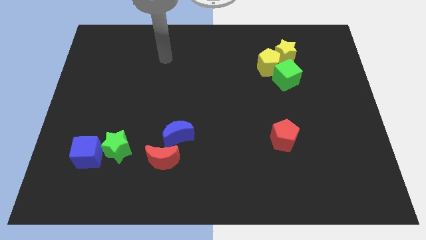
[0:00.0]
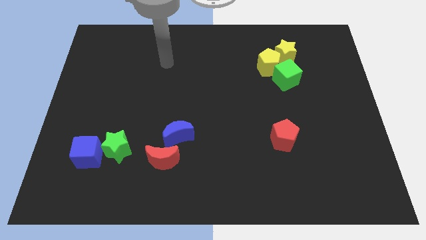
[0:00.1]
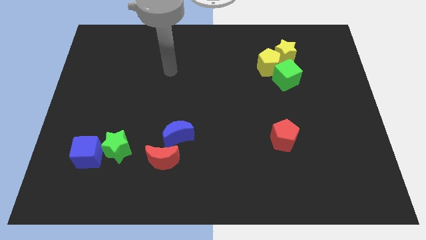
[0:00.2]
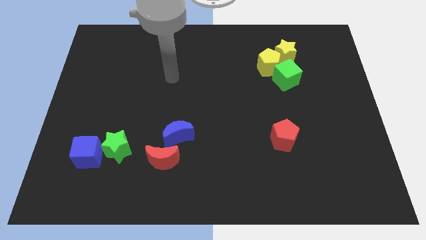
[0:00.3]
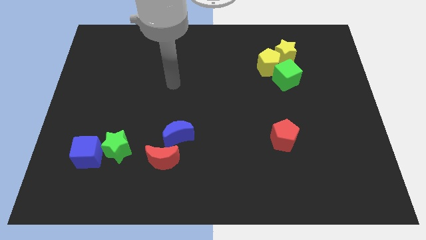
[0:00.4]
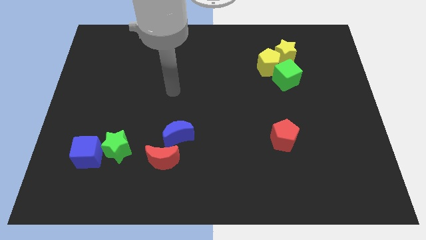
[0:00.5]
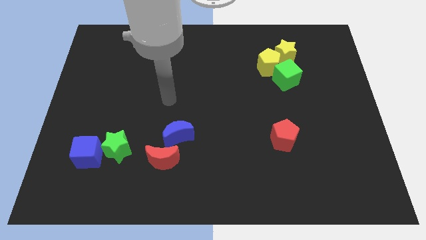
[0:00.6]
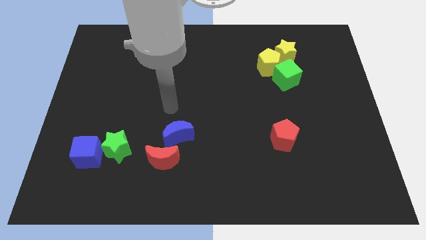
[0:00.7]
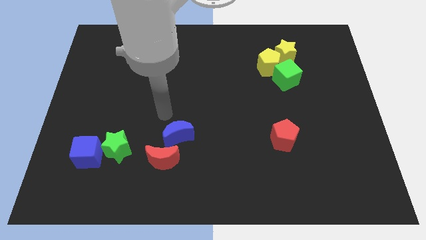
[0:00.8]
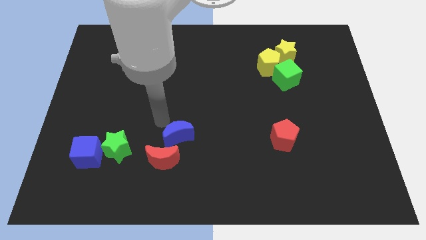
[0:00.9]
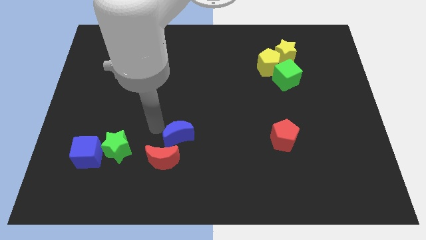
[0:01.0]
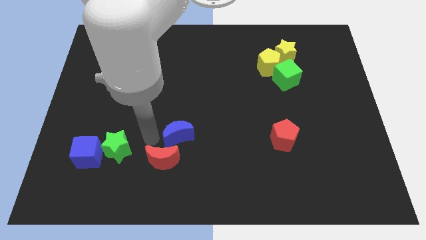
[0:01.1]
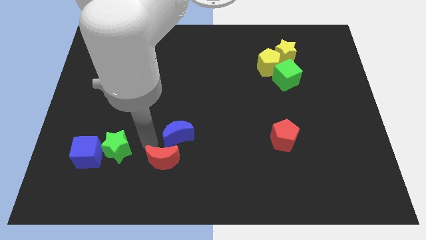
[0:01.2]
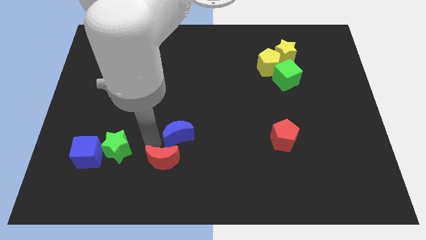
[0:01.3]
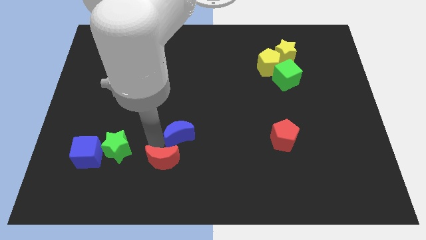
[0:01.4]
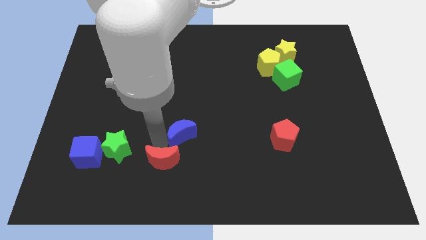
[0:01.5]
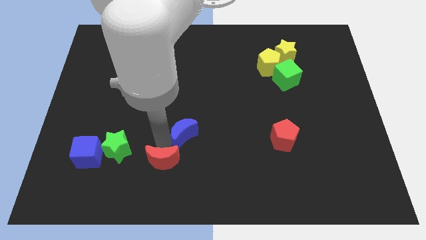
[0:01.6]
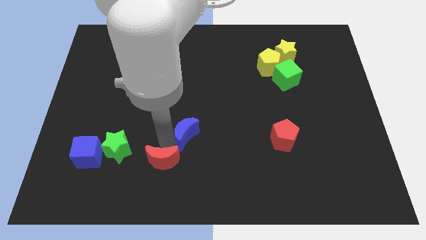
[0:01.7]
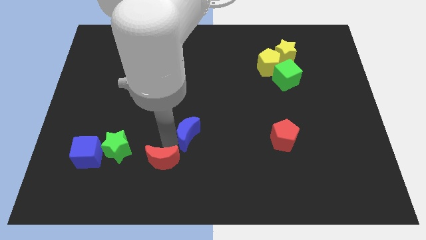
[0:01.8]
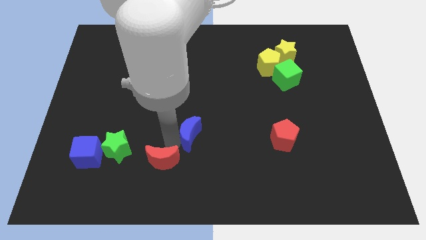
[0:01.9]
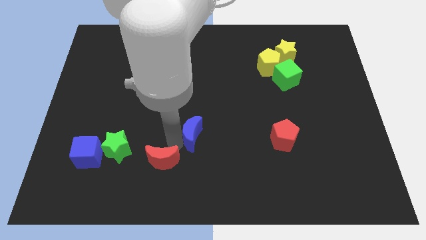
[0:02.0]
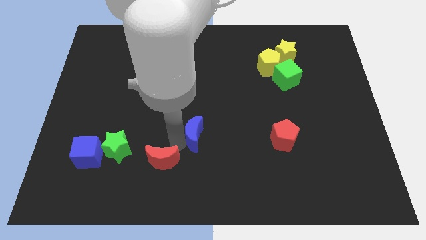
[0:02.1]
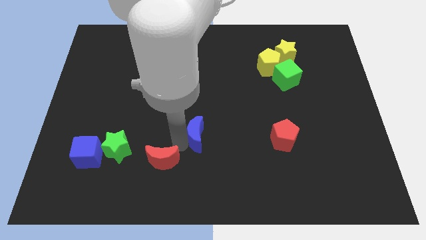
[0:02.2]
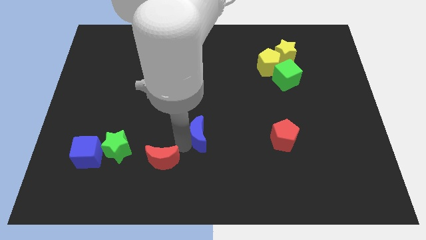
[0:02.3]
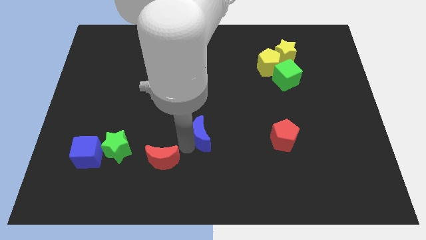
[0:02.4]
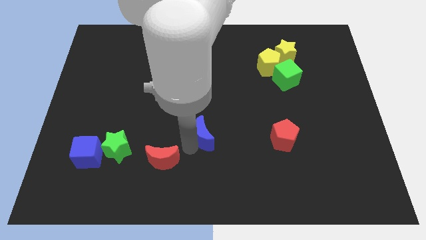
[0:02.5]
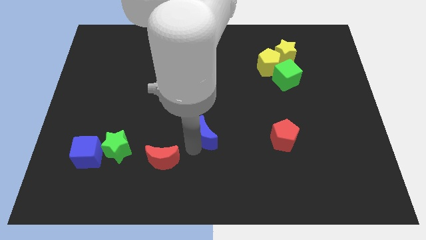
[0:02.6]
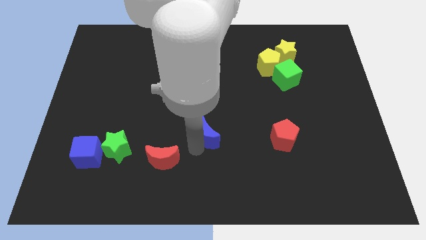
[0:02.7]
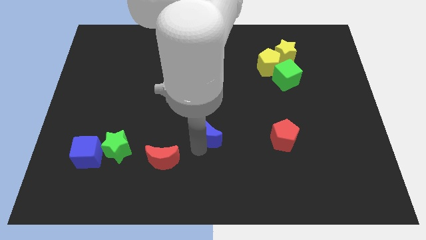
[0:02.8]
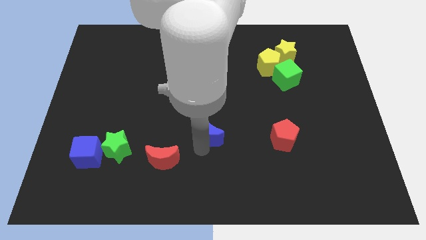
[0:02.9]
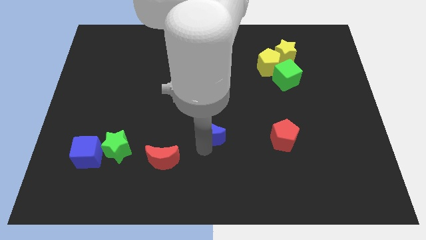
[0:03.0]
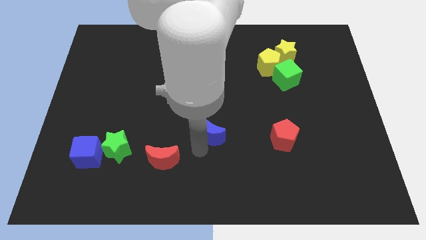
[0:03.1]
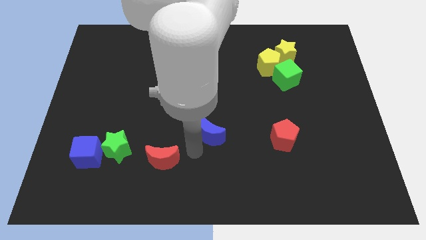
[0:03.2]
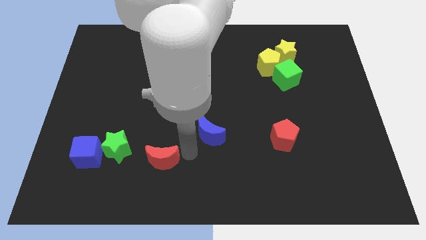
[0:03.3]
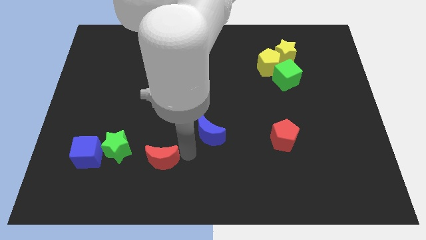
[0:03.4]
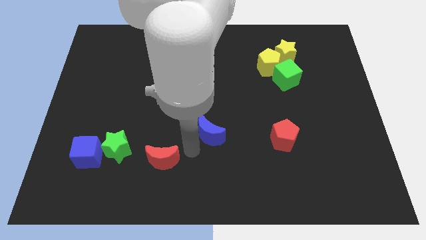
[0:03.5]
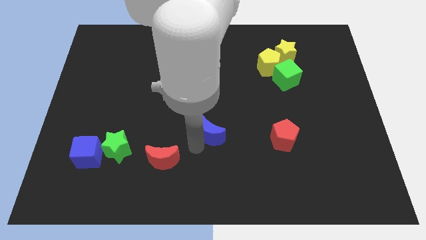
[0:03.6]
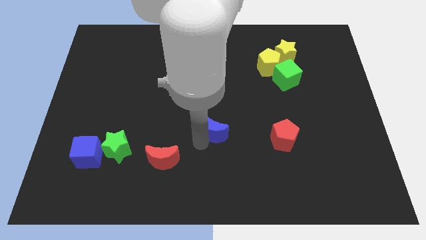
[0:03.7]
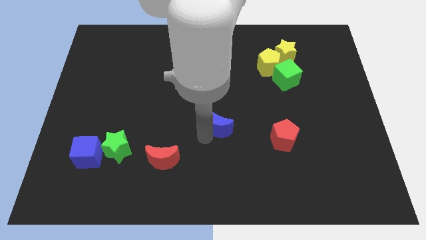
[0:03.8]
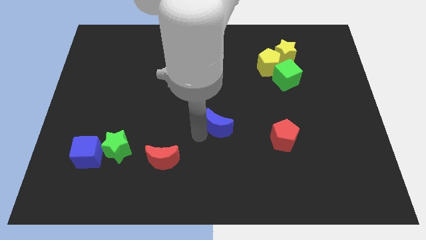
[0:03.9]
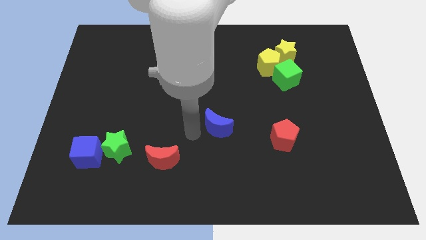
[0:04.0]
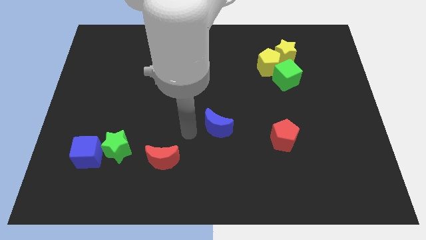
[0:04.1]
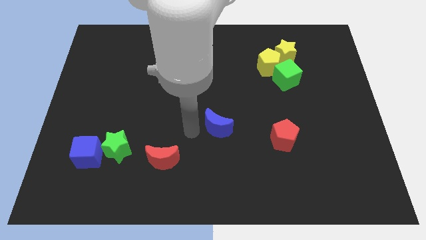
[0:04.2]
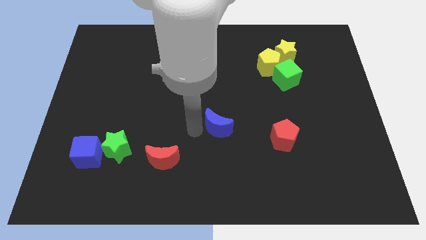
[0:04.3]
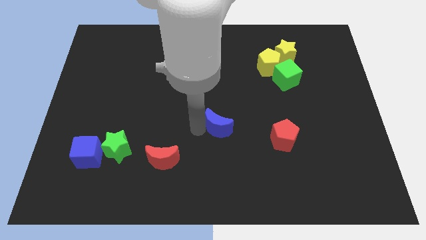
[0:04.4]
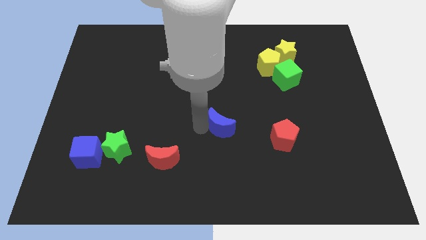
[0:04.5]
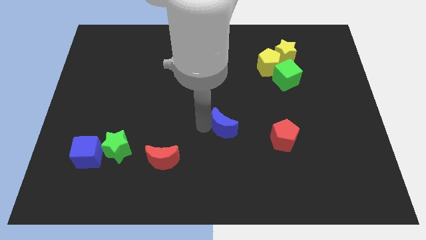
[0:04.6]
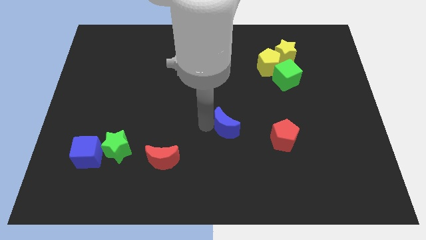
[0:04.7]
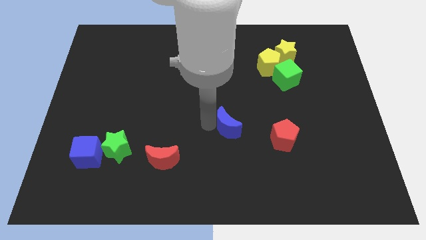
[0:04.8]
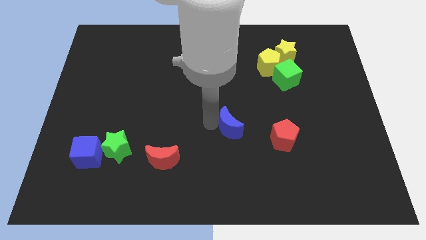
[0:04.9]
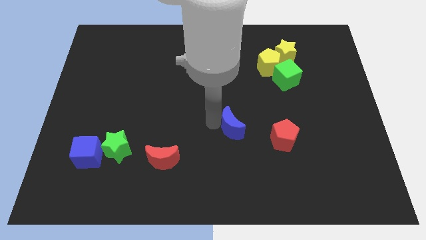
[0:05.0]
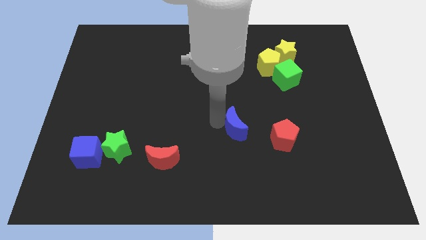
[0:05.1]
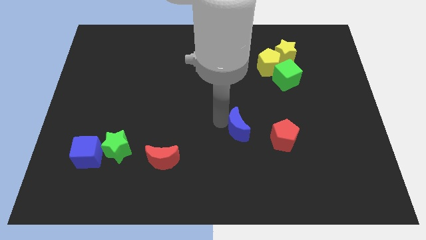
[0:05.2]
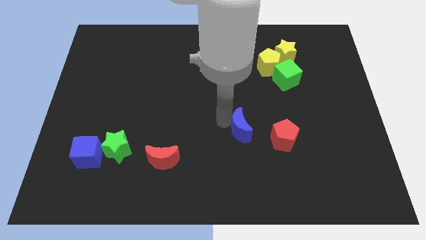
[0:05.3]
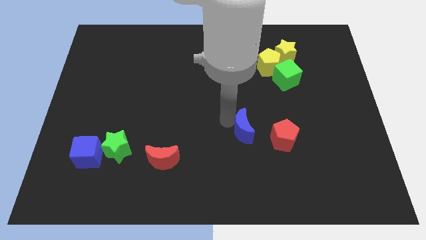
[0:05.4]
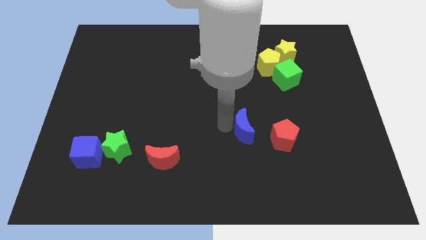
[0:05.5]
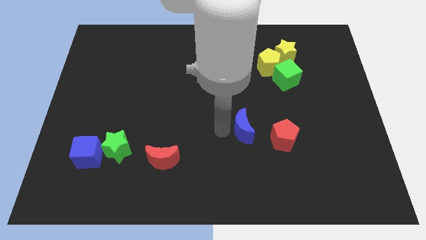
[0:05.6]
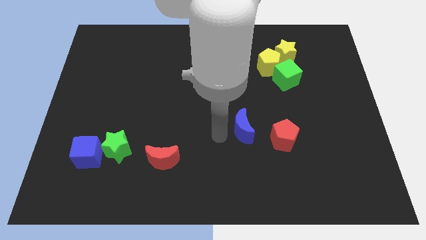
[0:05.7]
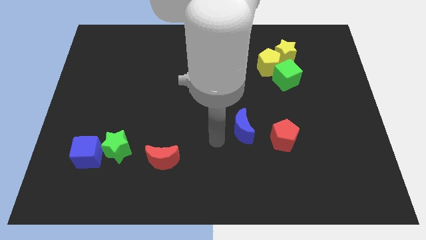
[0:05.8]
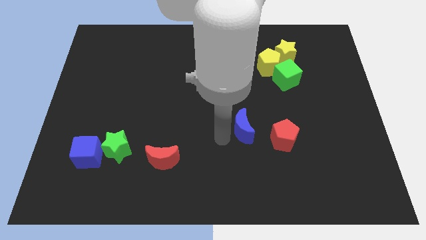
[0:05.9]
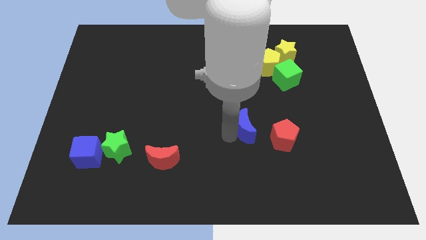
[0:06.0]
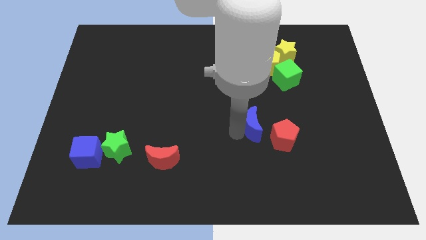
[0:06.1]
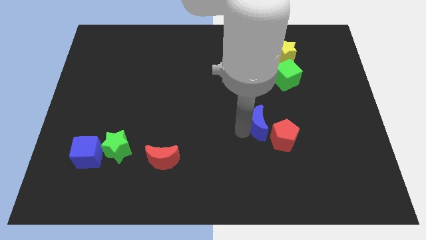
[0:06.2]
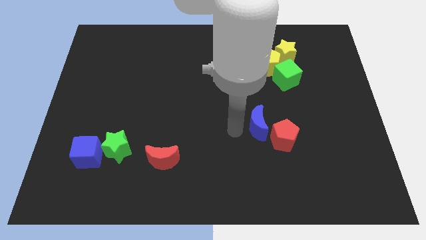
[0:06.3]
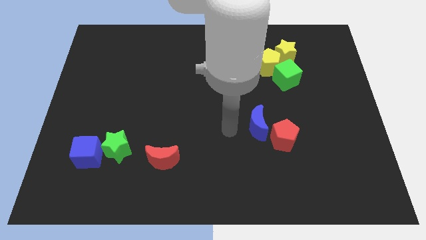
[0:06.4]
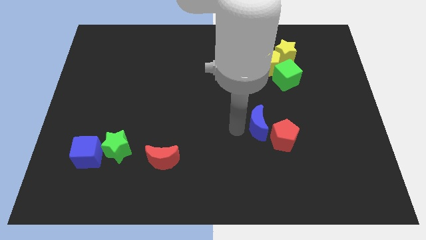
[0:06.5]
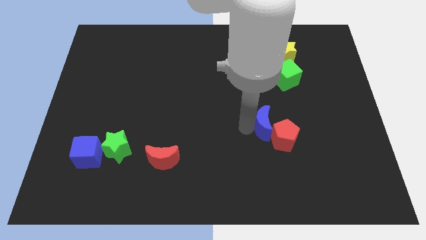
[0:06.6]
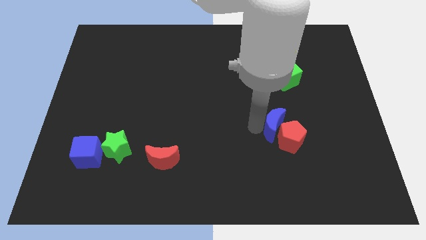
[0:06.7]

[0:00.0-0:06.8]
push the blue moon to the right

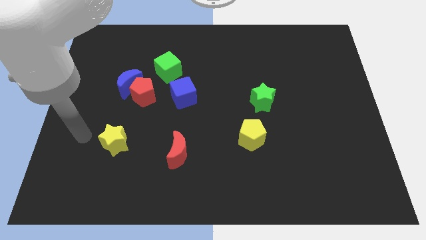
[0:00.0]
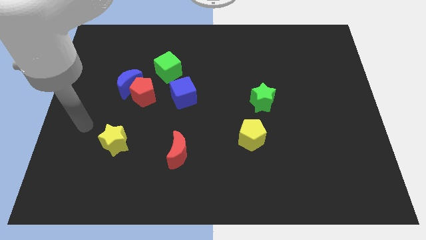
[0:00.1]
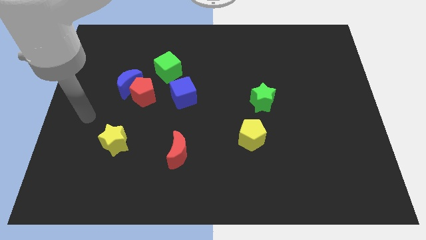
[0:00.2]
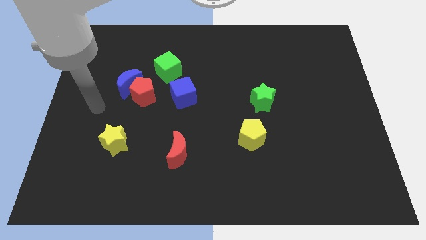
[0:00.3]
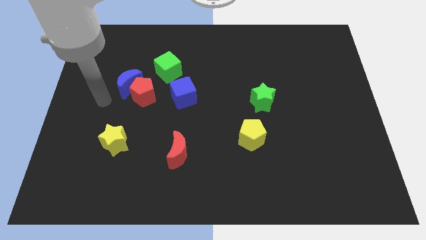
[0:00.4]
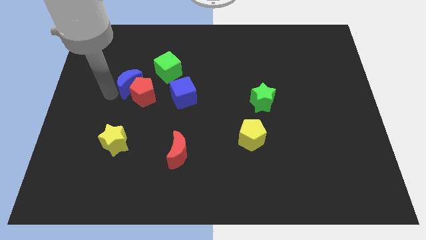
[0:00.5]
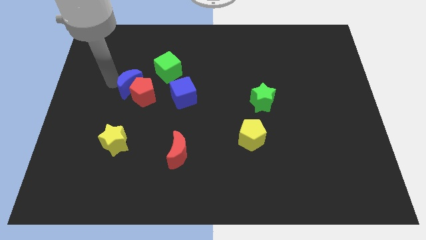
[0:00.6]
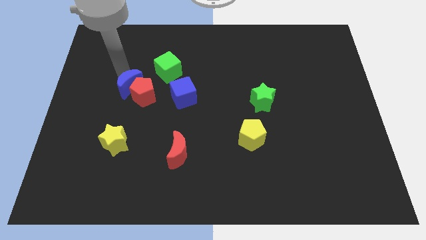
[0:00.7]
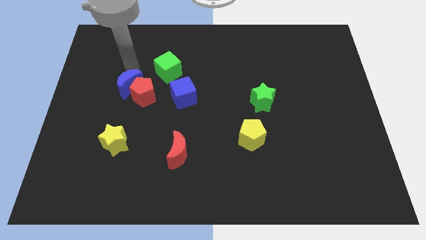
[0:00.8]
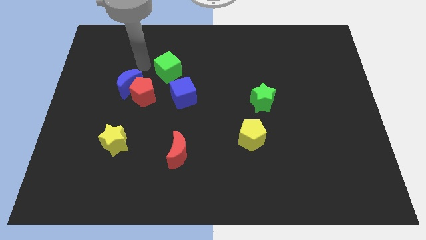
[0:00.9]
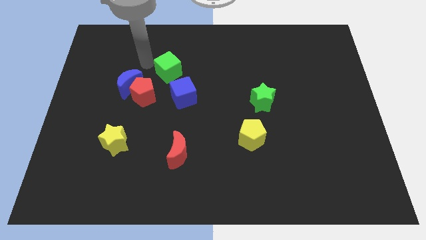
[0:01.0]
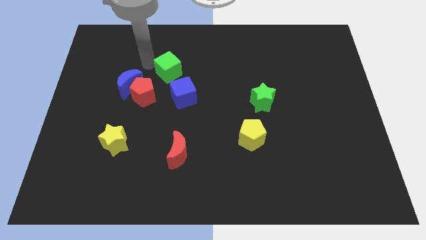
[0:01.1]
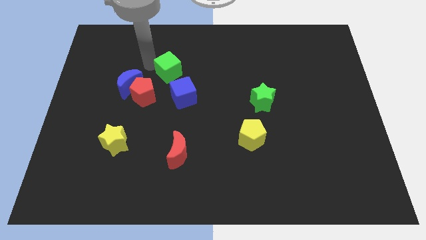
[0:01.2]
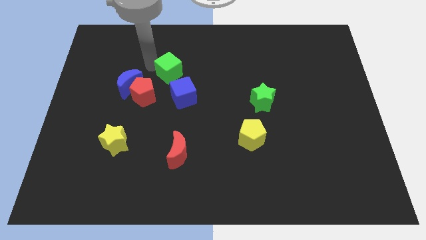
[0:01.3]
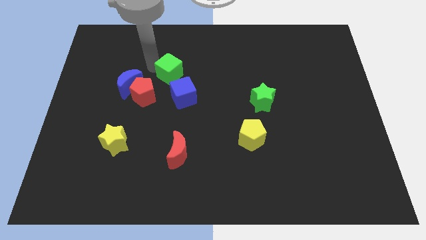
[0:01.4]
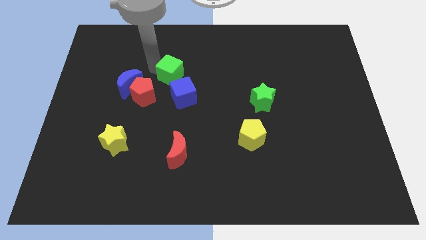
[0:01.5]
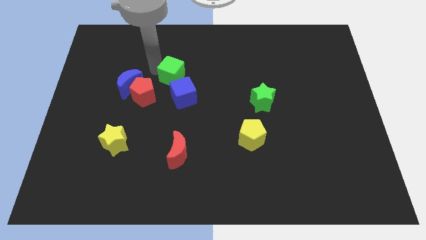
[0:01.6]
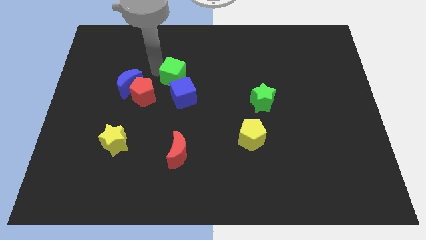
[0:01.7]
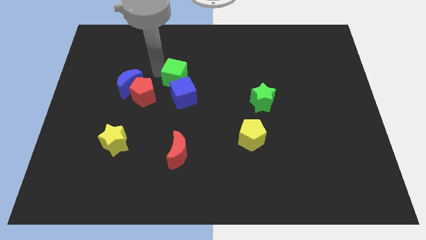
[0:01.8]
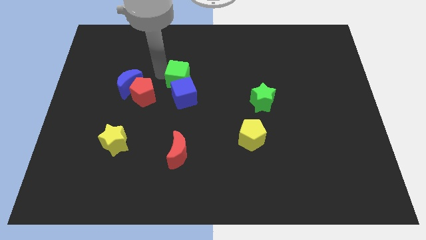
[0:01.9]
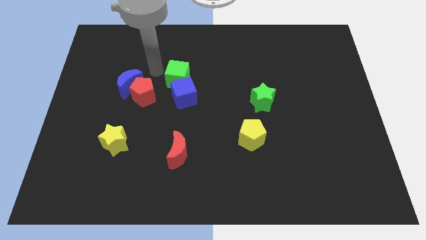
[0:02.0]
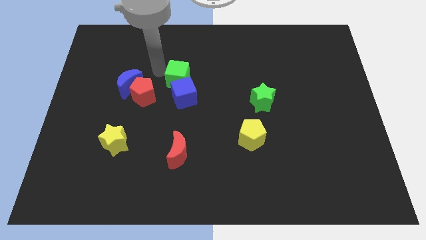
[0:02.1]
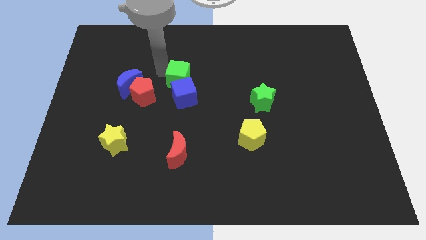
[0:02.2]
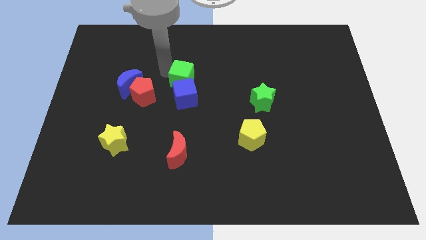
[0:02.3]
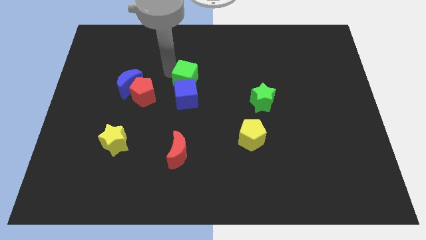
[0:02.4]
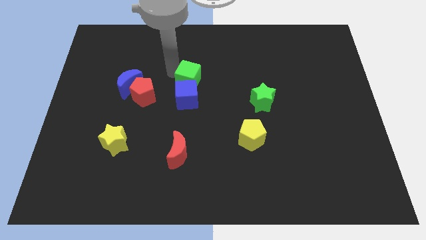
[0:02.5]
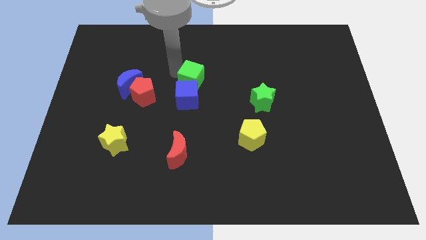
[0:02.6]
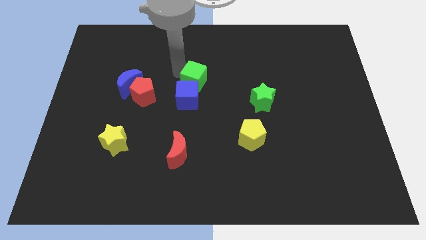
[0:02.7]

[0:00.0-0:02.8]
slightly move the green cube diagonally downwards and right
